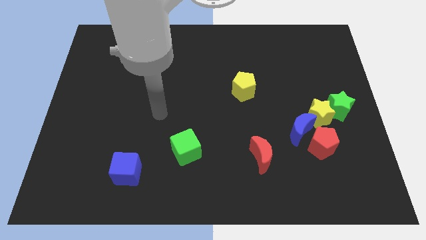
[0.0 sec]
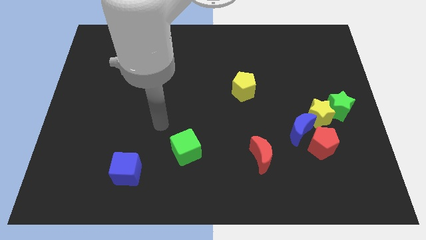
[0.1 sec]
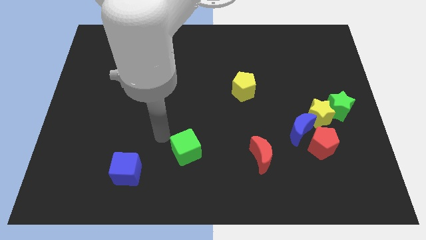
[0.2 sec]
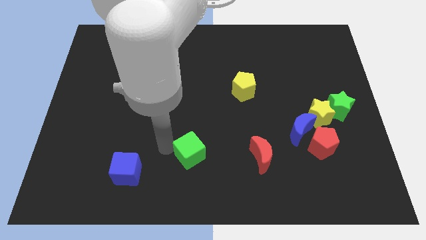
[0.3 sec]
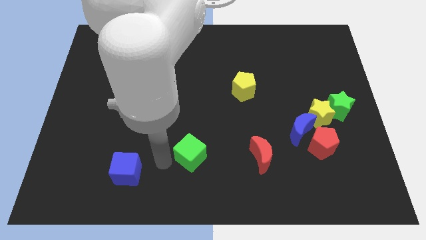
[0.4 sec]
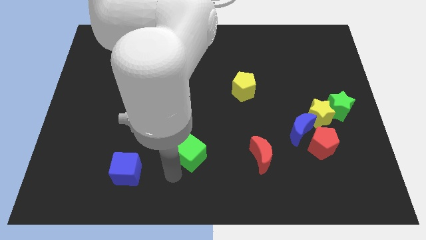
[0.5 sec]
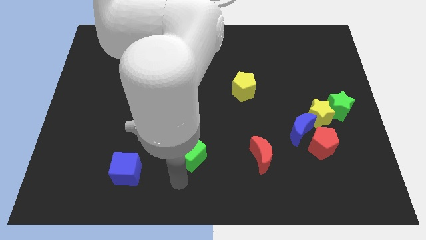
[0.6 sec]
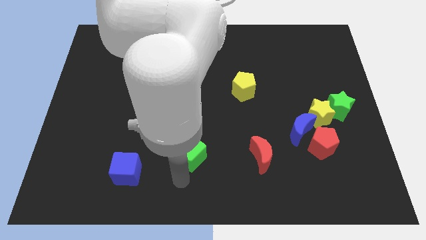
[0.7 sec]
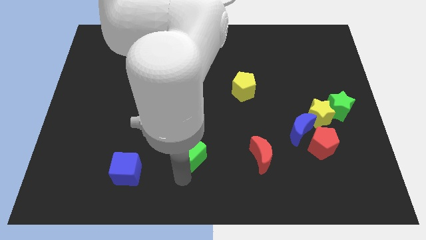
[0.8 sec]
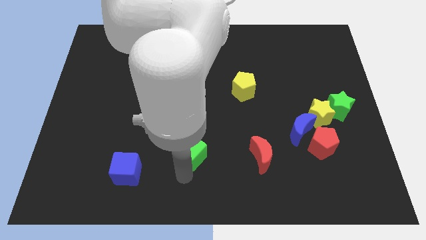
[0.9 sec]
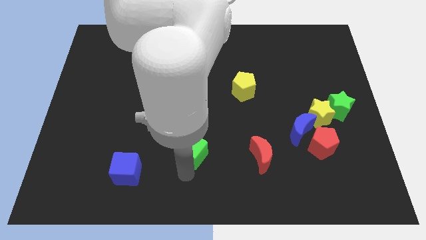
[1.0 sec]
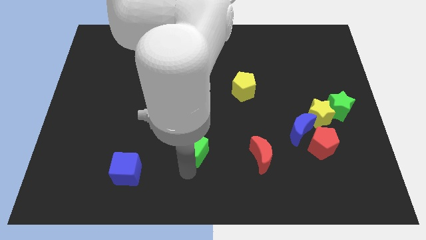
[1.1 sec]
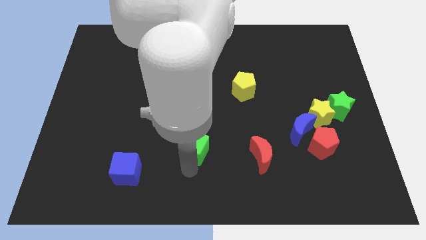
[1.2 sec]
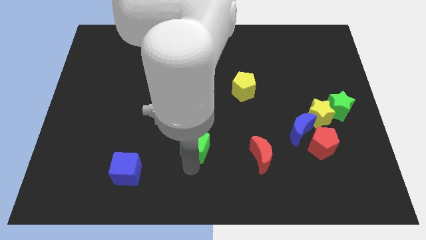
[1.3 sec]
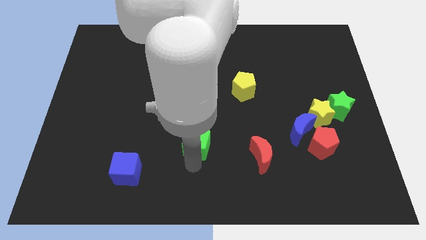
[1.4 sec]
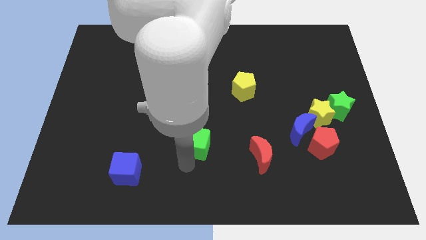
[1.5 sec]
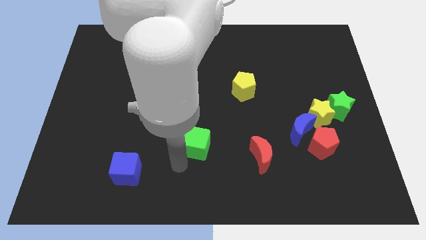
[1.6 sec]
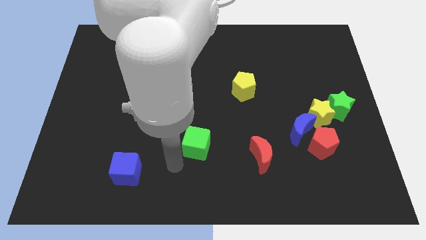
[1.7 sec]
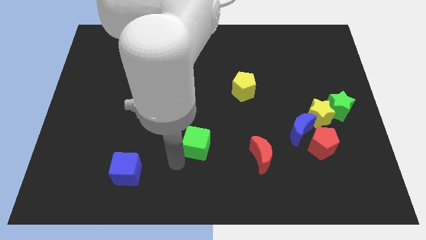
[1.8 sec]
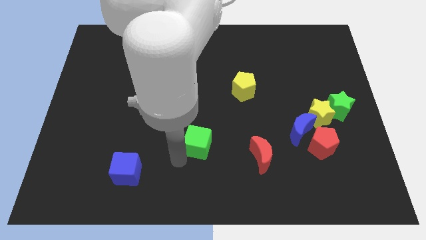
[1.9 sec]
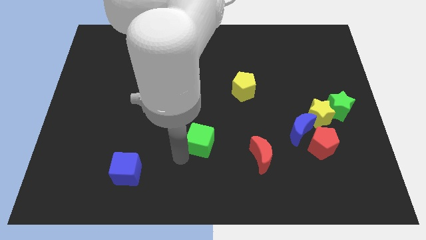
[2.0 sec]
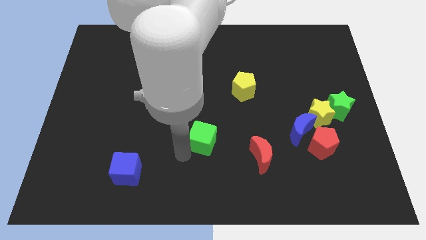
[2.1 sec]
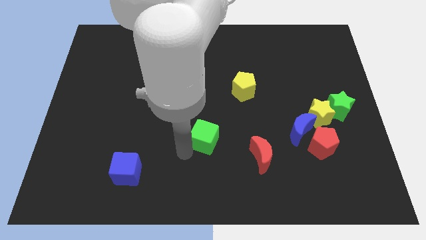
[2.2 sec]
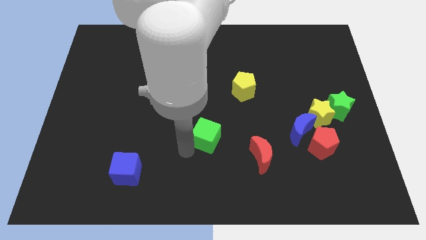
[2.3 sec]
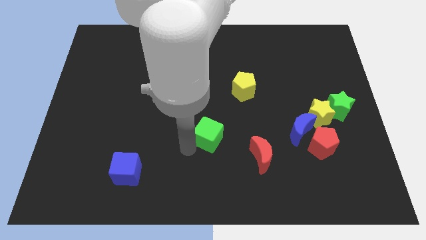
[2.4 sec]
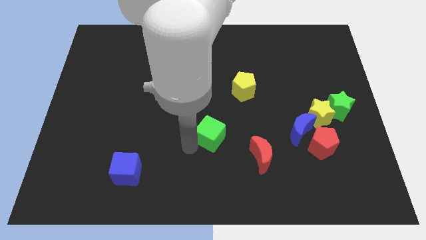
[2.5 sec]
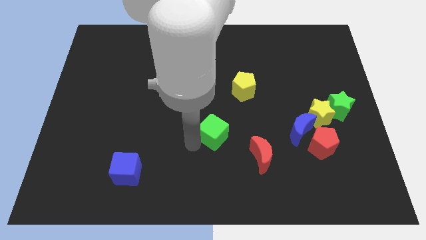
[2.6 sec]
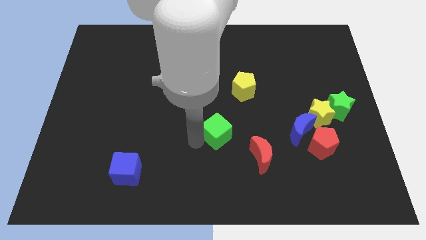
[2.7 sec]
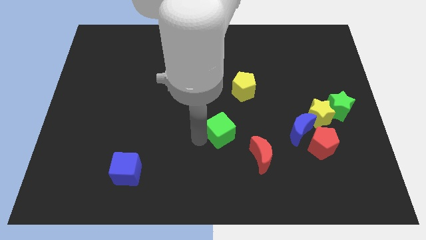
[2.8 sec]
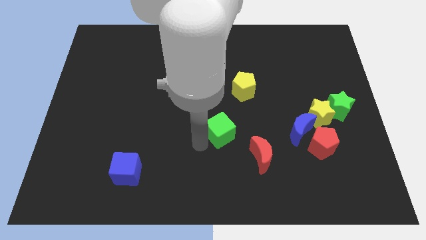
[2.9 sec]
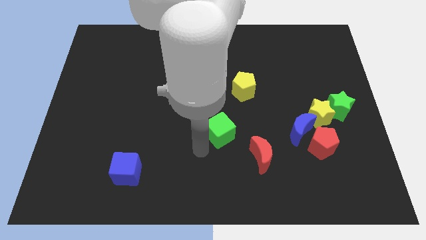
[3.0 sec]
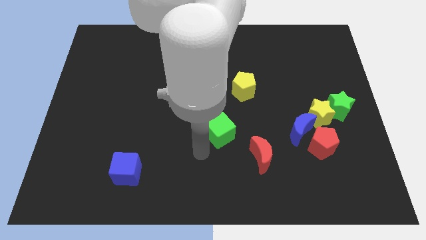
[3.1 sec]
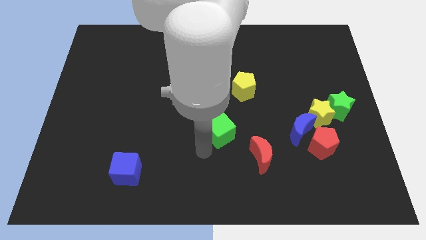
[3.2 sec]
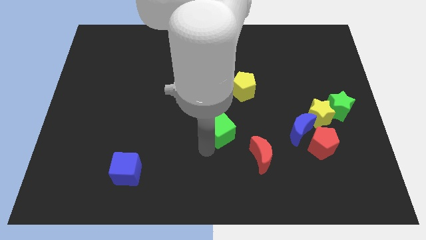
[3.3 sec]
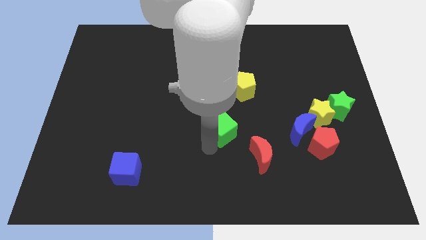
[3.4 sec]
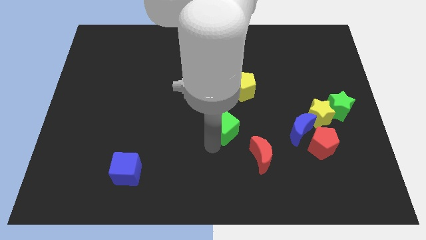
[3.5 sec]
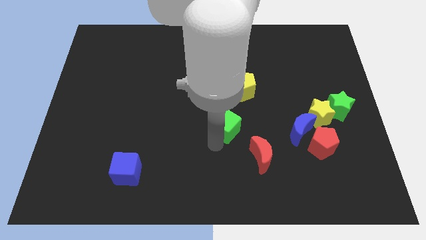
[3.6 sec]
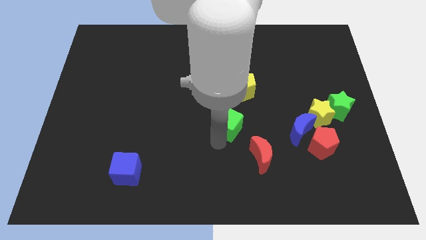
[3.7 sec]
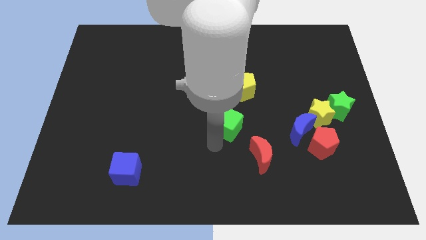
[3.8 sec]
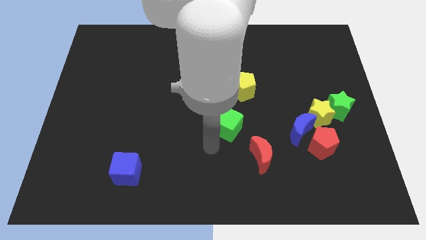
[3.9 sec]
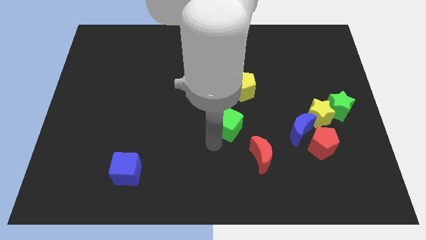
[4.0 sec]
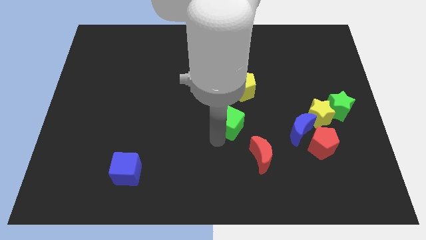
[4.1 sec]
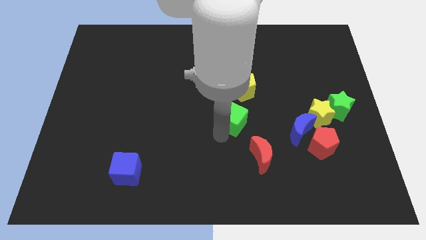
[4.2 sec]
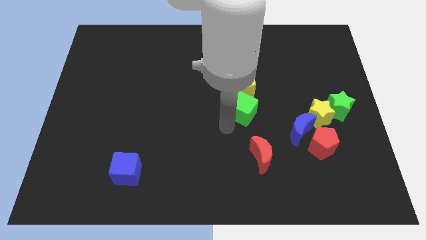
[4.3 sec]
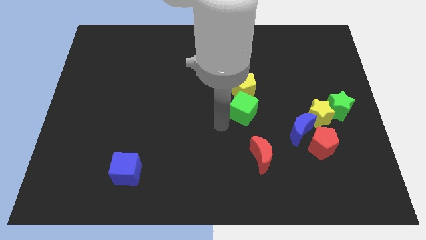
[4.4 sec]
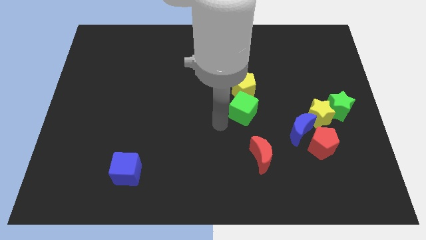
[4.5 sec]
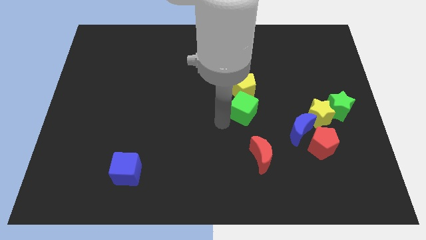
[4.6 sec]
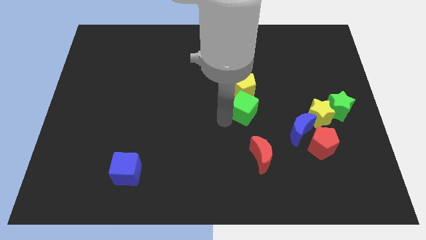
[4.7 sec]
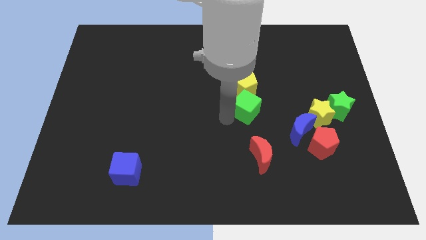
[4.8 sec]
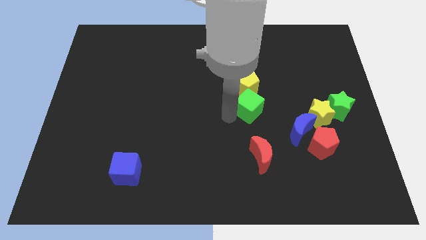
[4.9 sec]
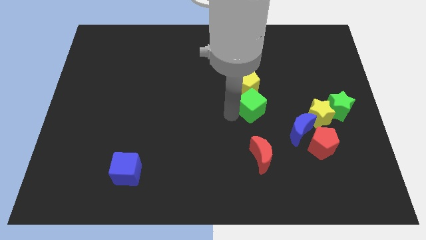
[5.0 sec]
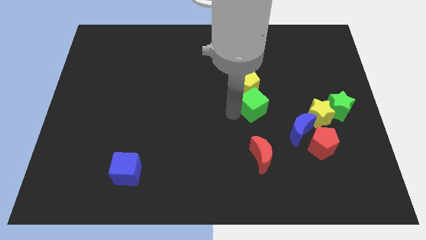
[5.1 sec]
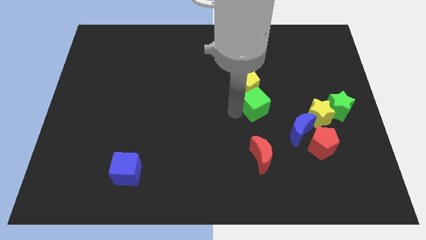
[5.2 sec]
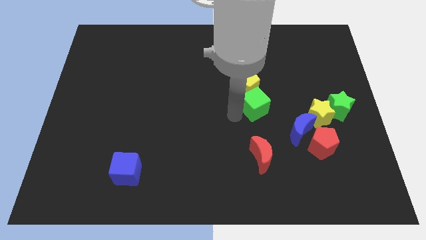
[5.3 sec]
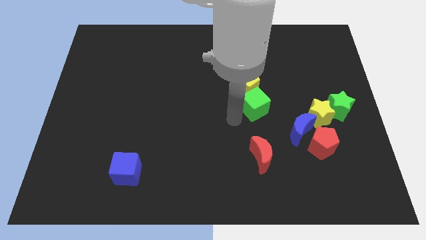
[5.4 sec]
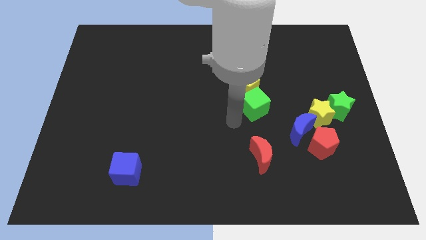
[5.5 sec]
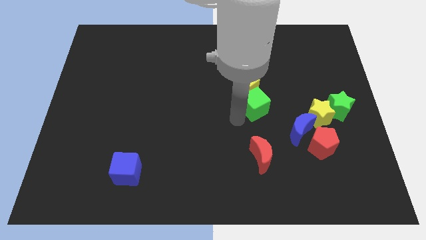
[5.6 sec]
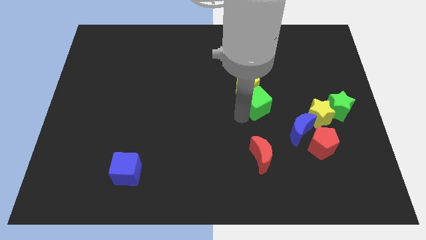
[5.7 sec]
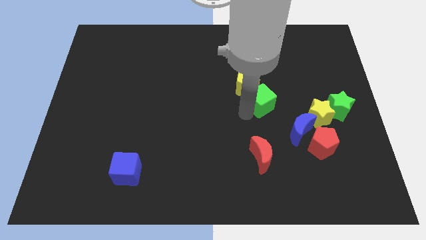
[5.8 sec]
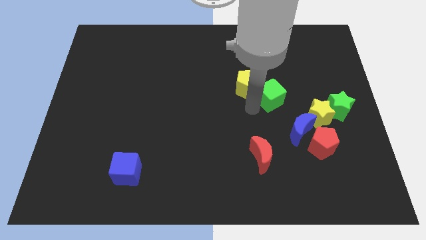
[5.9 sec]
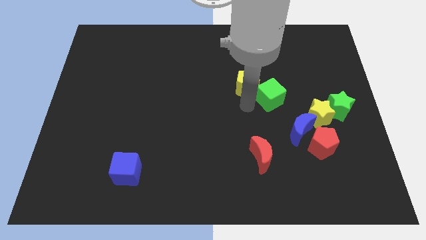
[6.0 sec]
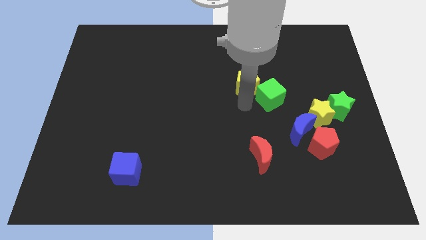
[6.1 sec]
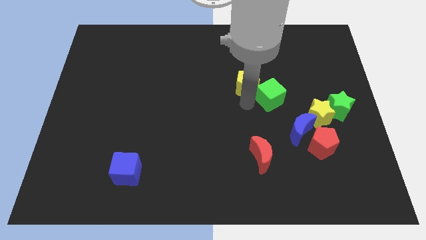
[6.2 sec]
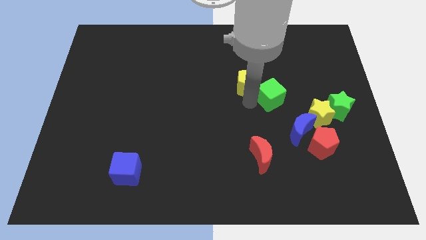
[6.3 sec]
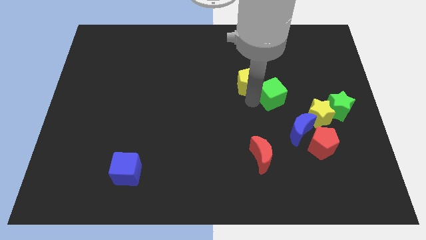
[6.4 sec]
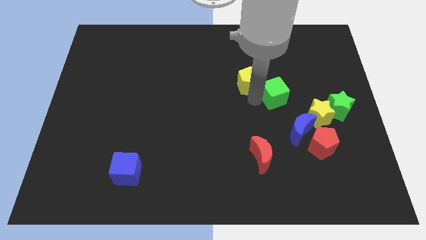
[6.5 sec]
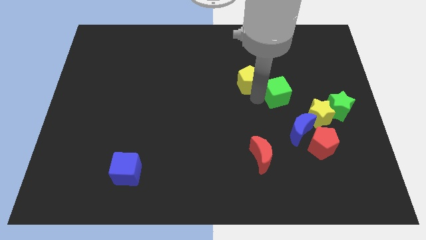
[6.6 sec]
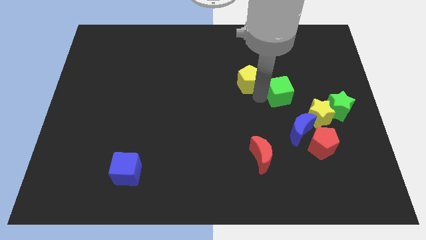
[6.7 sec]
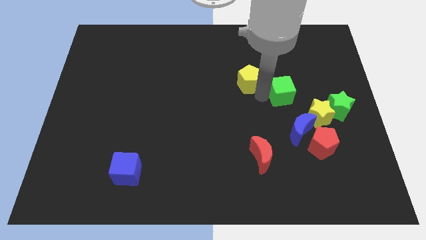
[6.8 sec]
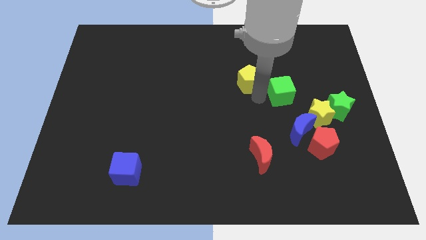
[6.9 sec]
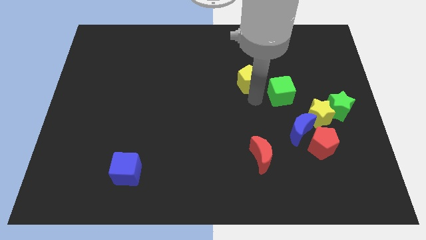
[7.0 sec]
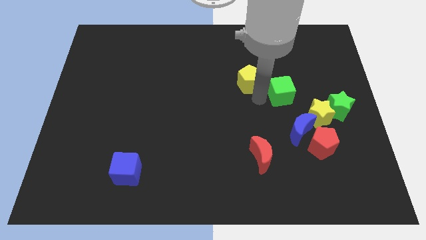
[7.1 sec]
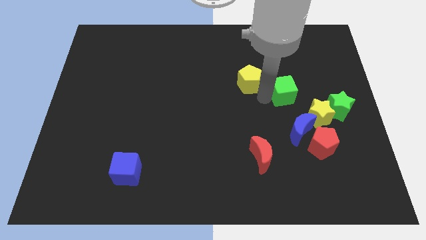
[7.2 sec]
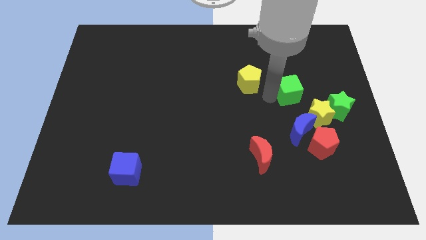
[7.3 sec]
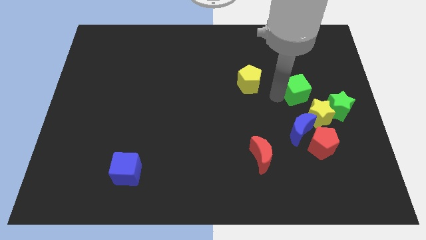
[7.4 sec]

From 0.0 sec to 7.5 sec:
move the green cube above the yellow star
